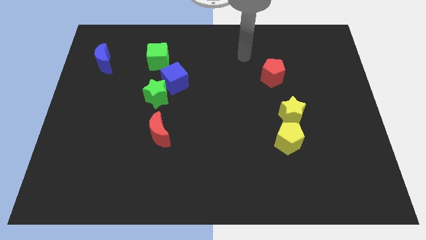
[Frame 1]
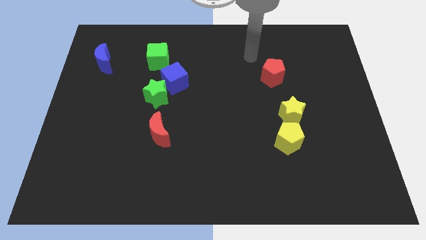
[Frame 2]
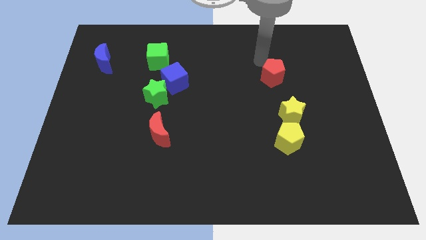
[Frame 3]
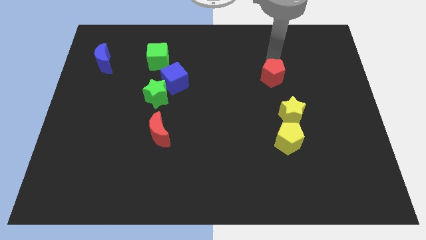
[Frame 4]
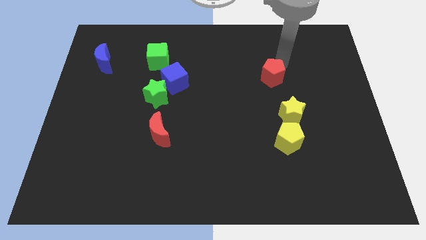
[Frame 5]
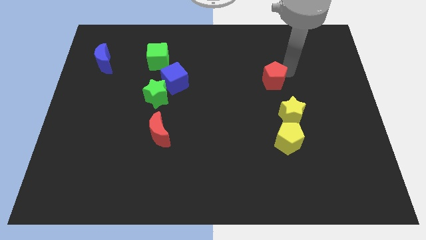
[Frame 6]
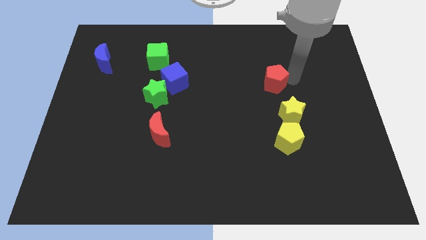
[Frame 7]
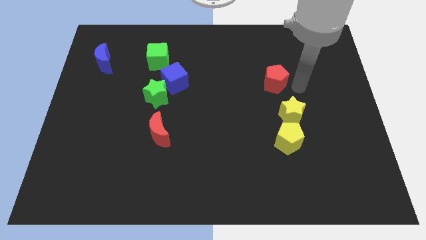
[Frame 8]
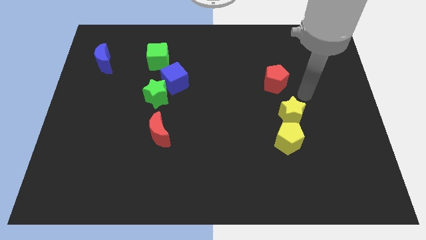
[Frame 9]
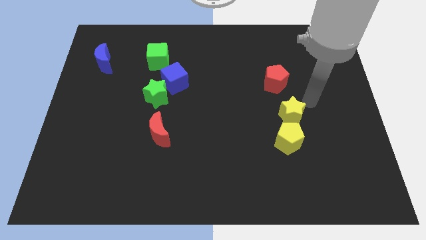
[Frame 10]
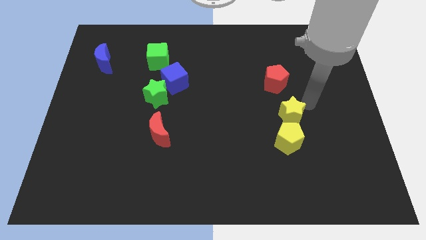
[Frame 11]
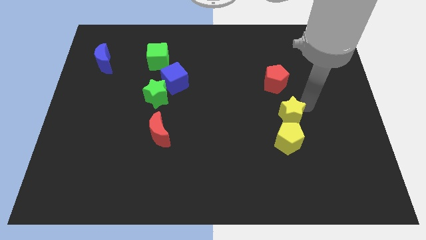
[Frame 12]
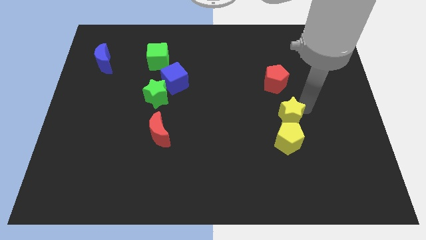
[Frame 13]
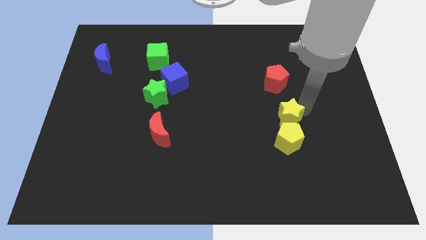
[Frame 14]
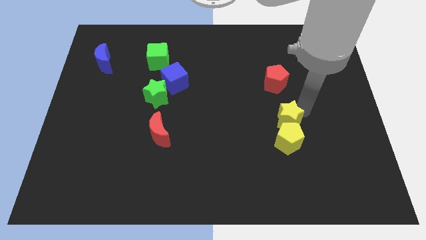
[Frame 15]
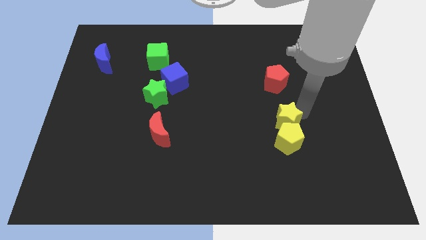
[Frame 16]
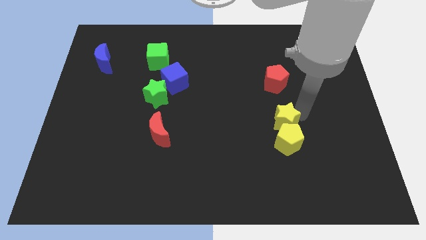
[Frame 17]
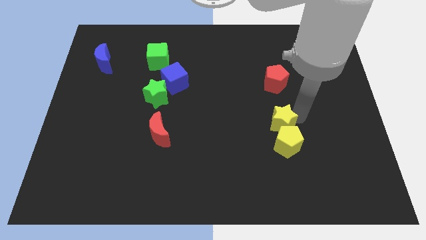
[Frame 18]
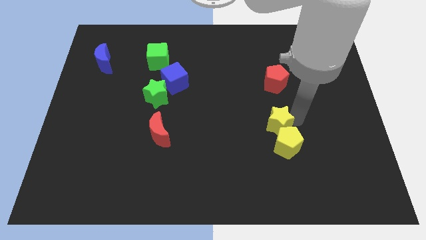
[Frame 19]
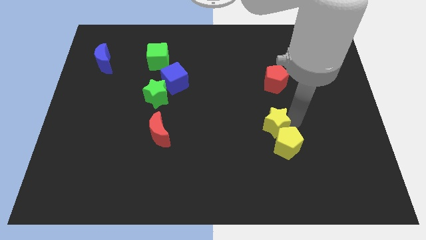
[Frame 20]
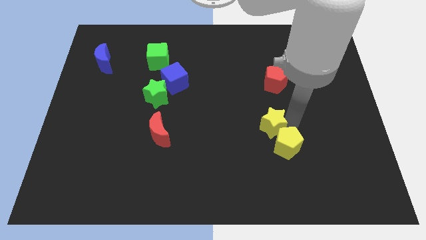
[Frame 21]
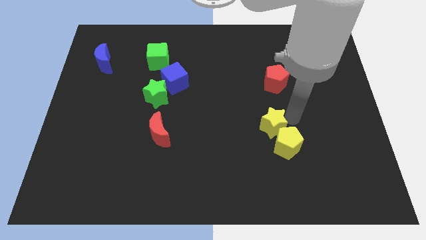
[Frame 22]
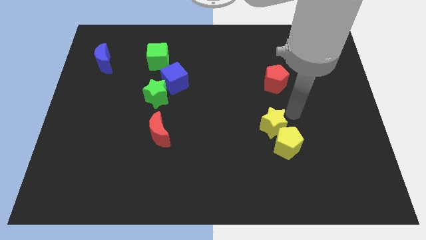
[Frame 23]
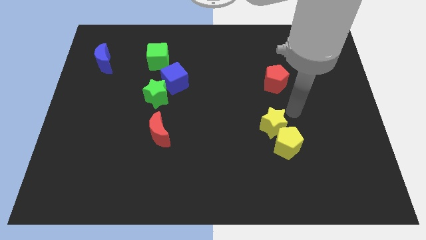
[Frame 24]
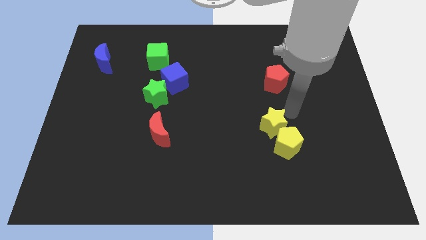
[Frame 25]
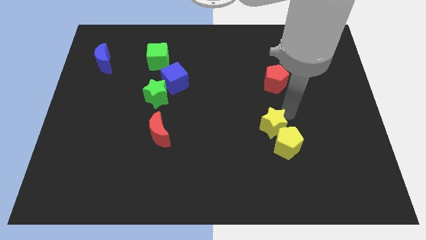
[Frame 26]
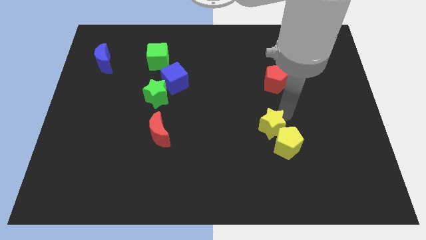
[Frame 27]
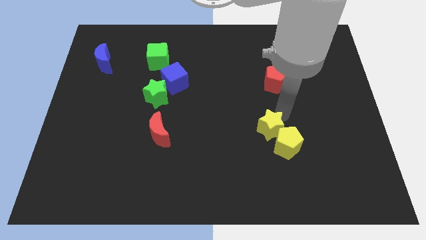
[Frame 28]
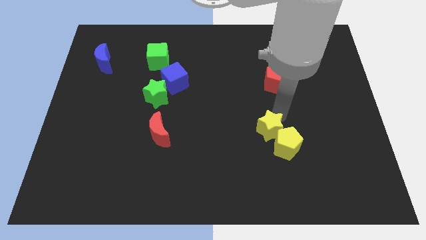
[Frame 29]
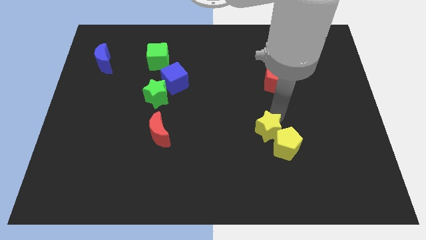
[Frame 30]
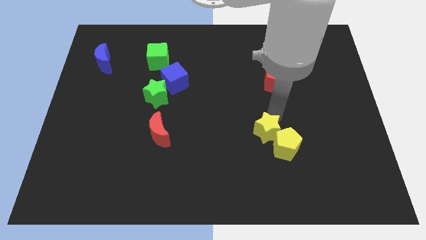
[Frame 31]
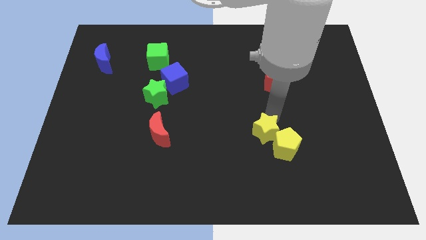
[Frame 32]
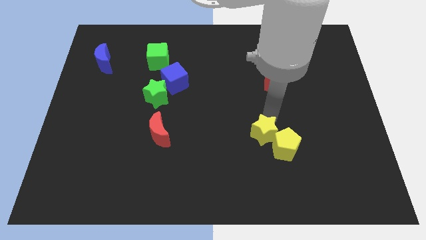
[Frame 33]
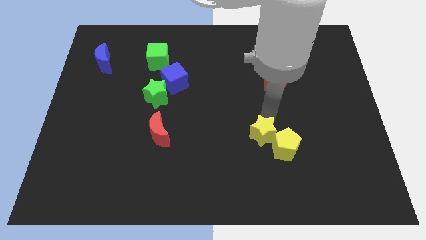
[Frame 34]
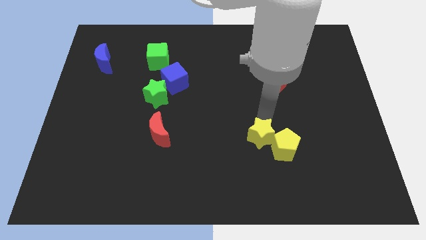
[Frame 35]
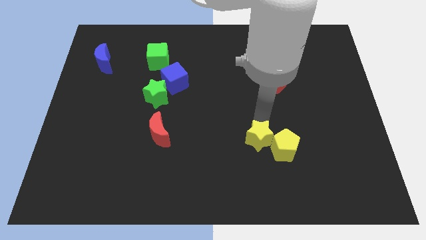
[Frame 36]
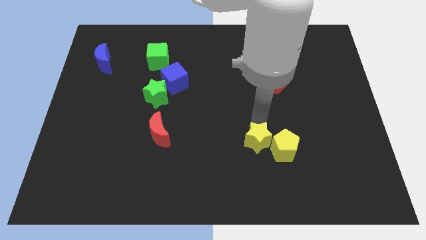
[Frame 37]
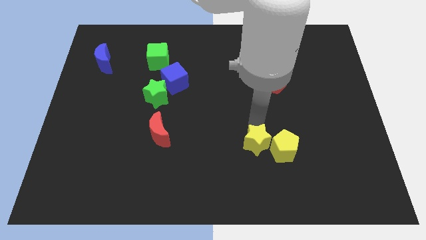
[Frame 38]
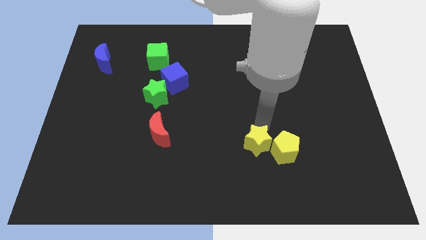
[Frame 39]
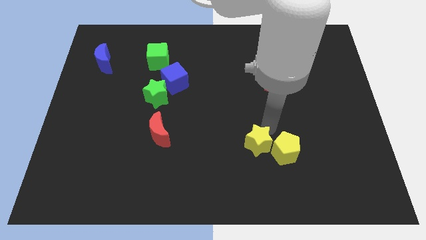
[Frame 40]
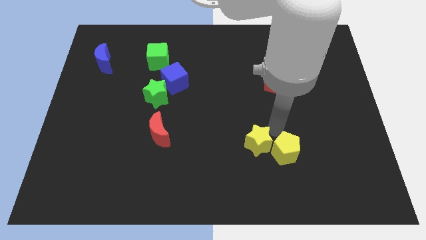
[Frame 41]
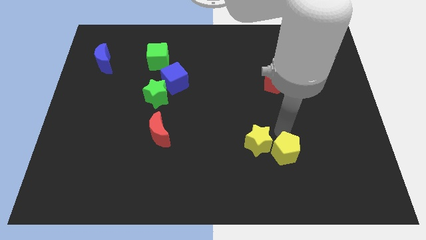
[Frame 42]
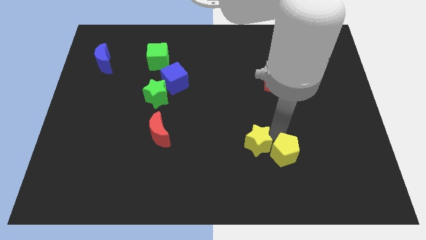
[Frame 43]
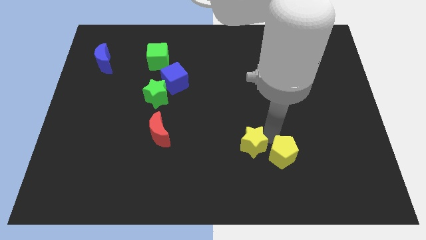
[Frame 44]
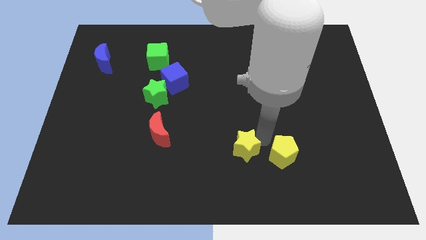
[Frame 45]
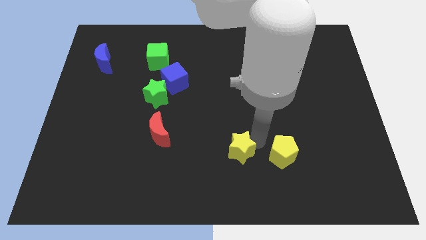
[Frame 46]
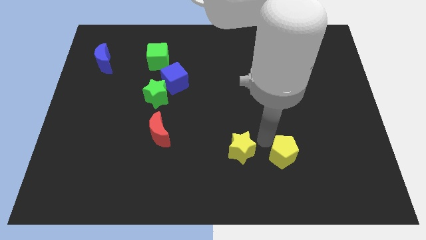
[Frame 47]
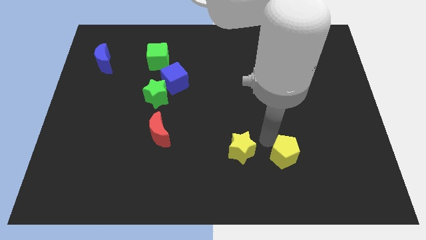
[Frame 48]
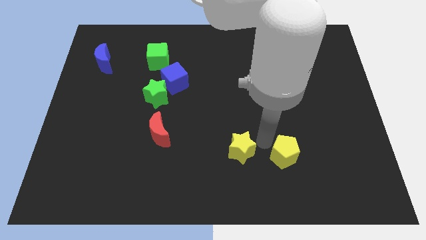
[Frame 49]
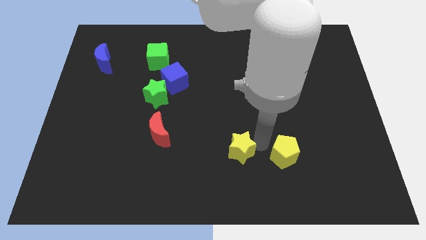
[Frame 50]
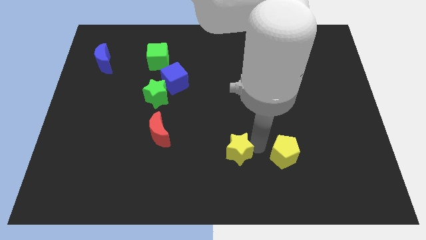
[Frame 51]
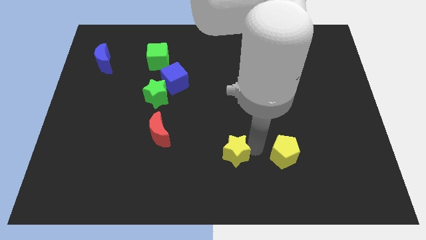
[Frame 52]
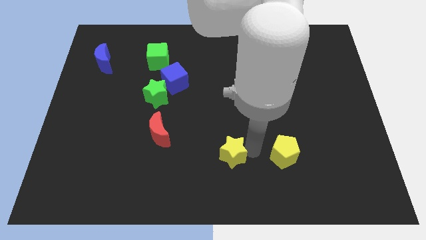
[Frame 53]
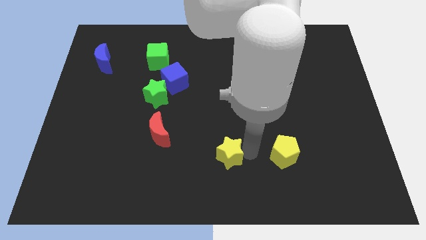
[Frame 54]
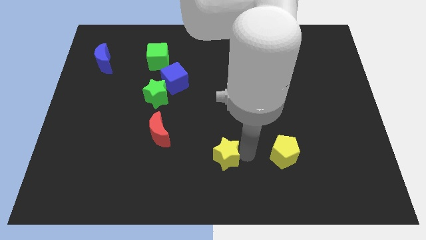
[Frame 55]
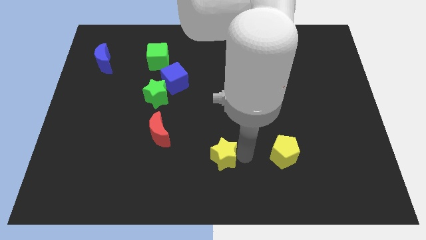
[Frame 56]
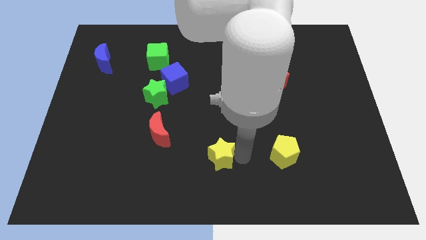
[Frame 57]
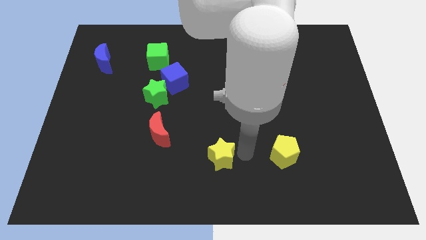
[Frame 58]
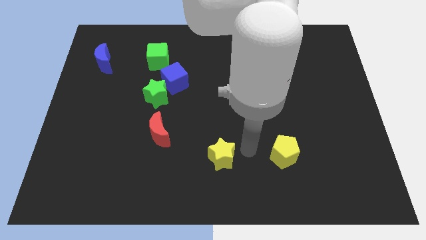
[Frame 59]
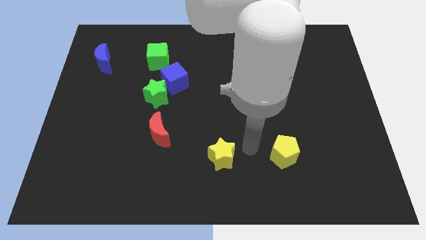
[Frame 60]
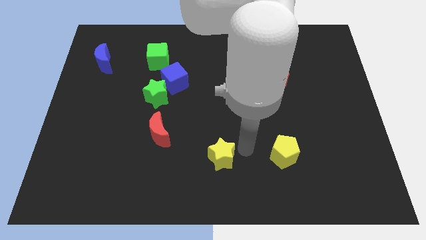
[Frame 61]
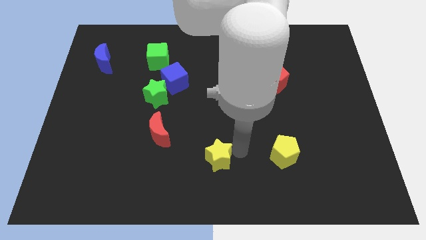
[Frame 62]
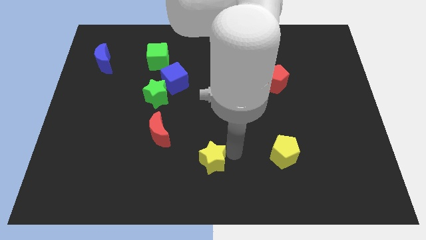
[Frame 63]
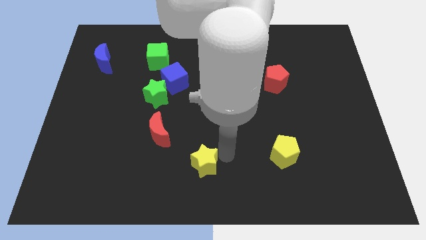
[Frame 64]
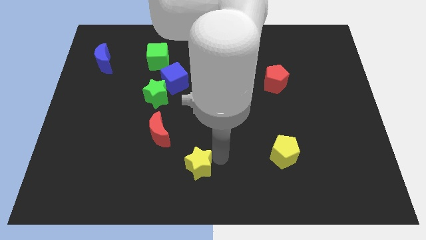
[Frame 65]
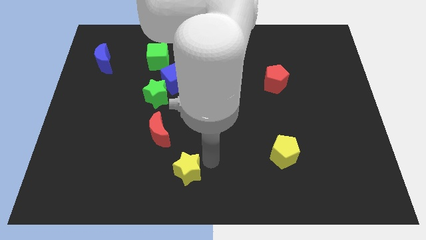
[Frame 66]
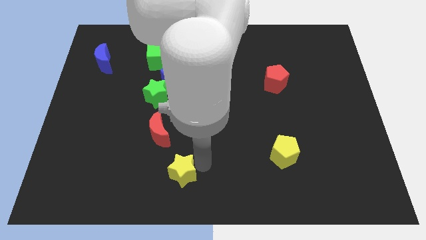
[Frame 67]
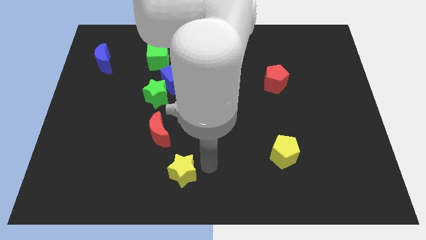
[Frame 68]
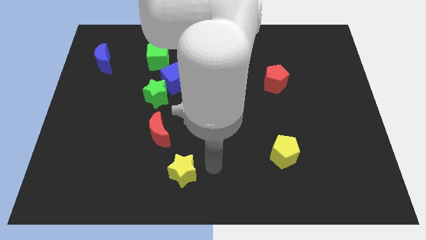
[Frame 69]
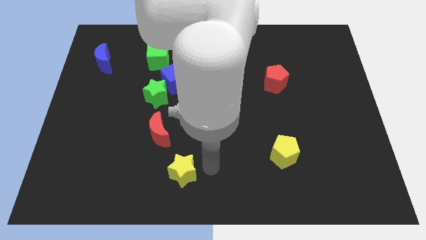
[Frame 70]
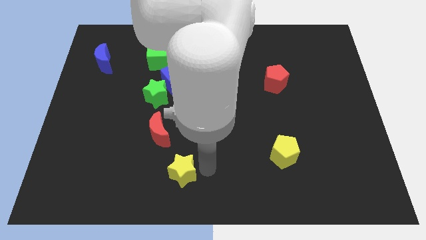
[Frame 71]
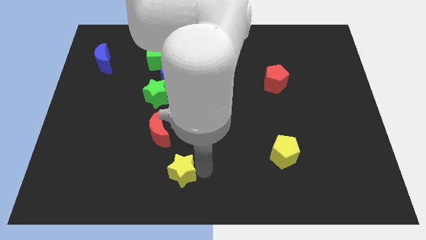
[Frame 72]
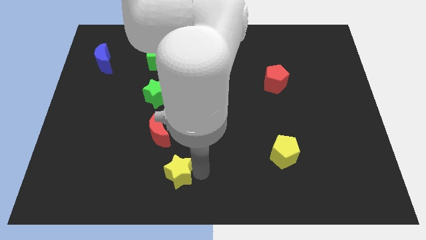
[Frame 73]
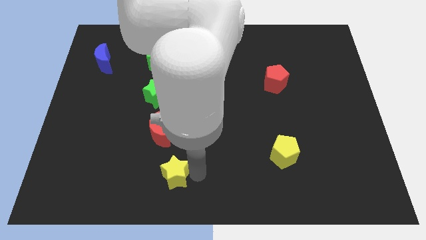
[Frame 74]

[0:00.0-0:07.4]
put the yellow star below the red moon

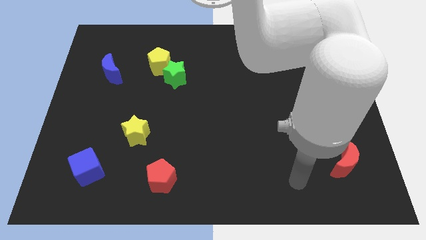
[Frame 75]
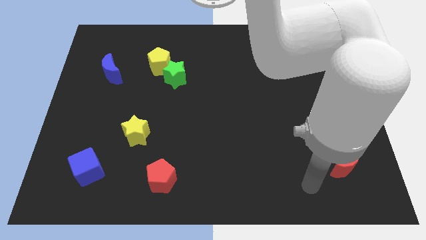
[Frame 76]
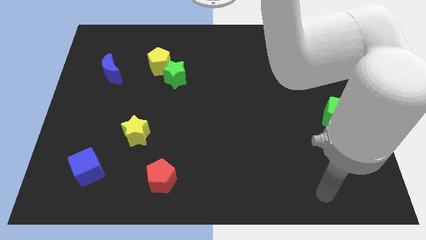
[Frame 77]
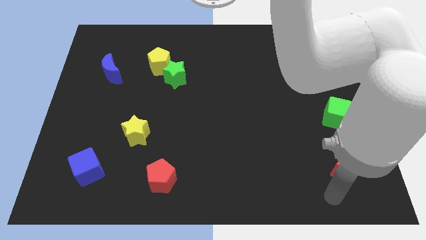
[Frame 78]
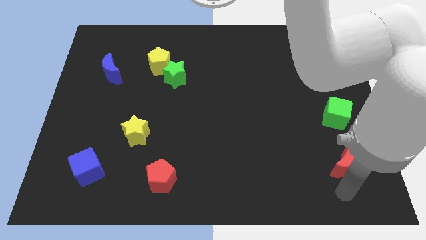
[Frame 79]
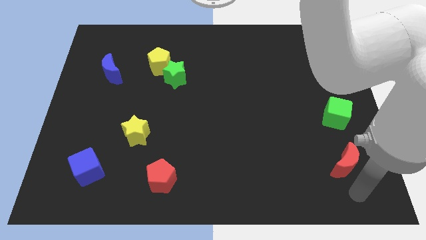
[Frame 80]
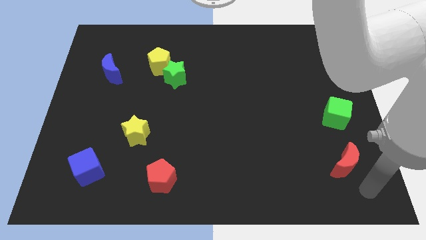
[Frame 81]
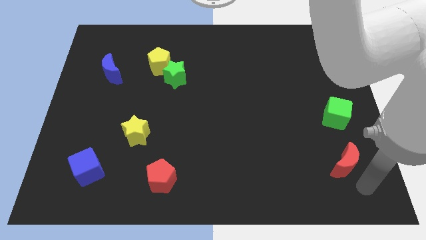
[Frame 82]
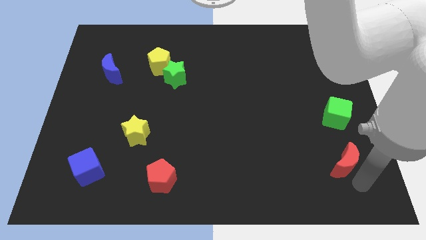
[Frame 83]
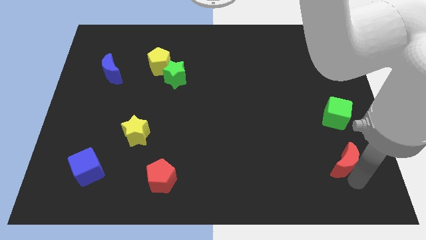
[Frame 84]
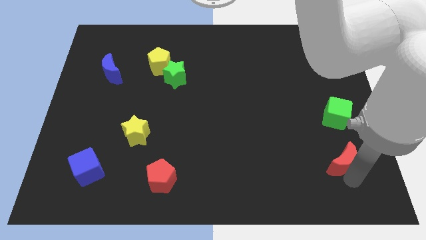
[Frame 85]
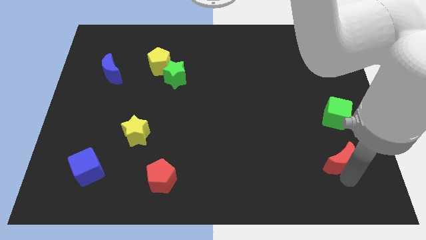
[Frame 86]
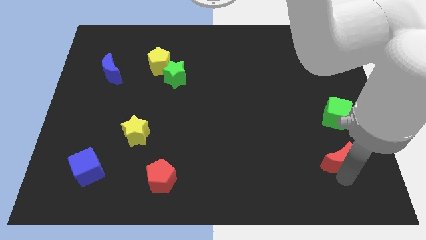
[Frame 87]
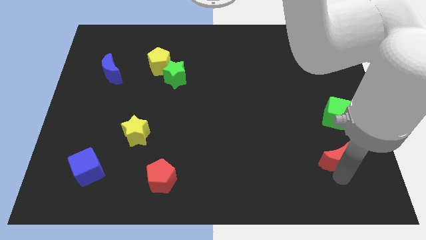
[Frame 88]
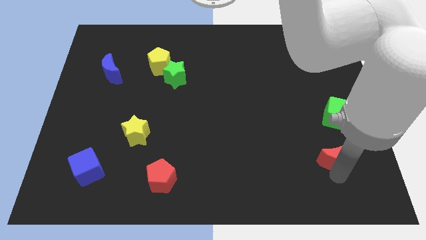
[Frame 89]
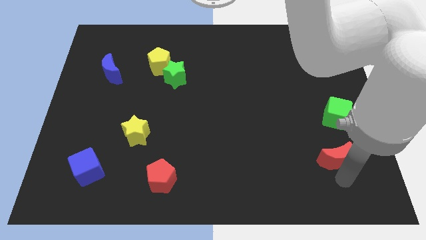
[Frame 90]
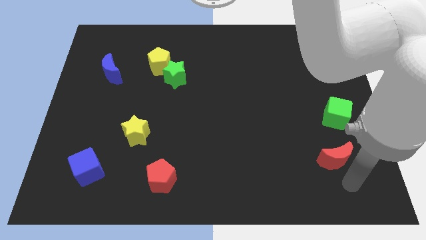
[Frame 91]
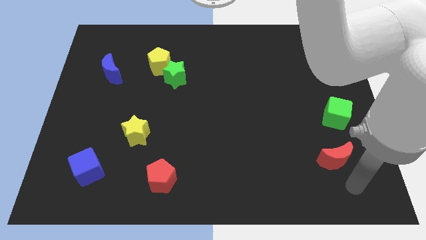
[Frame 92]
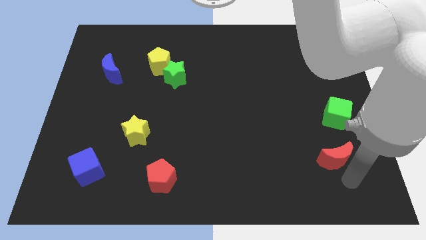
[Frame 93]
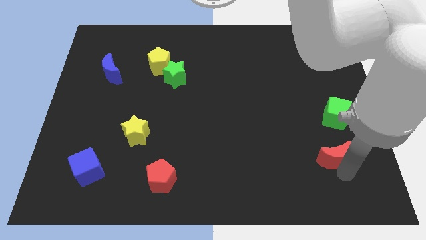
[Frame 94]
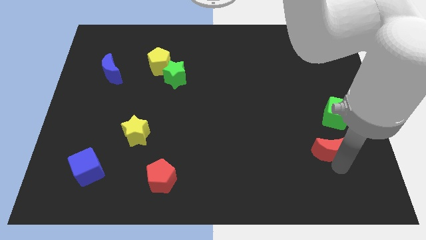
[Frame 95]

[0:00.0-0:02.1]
move the red moon diagonally down and to the left of the green cube
